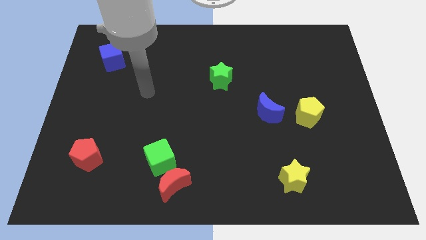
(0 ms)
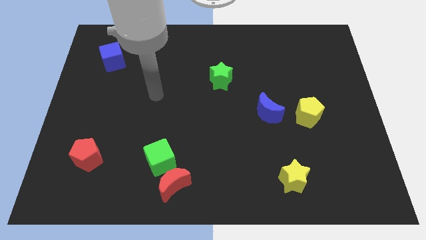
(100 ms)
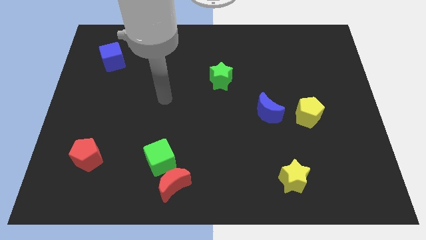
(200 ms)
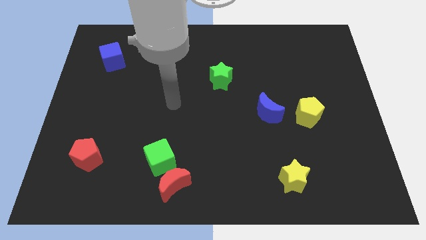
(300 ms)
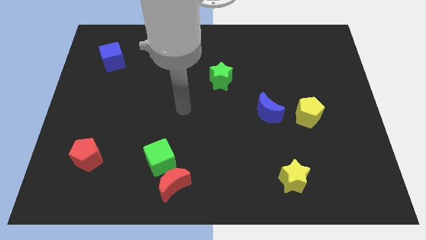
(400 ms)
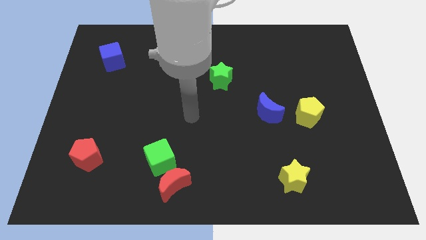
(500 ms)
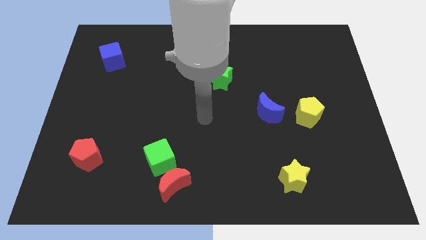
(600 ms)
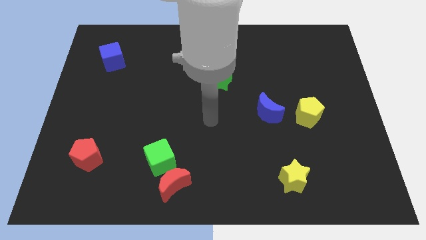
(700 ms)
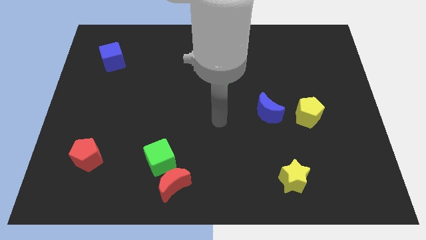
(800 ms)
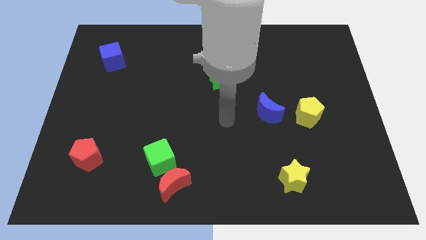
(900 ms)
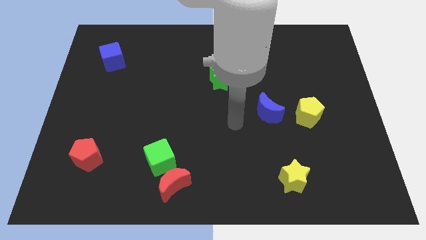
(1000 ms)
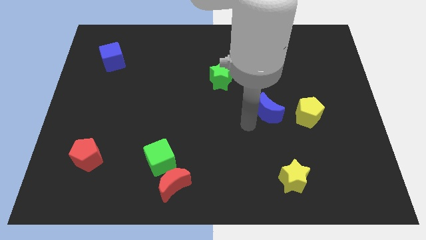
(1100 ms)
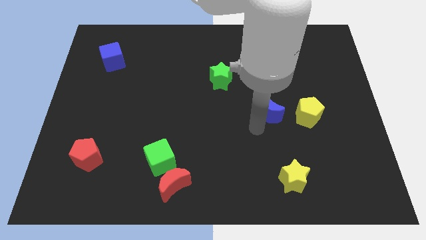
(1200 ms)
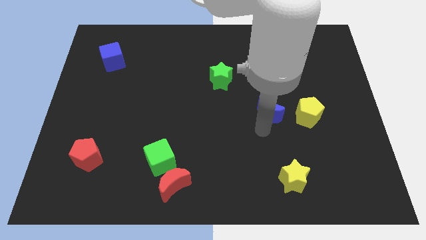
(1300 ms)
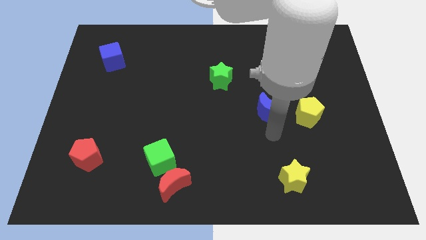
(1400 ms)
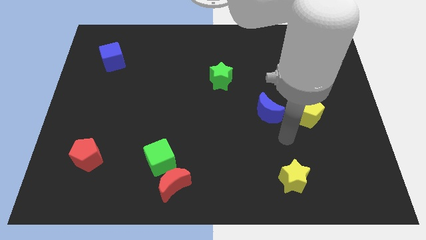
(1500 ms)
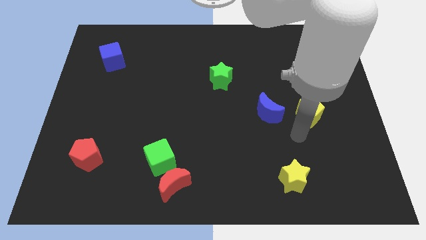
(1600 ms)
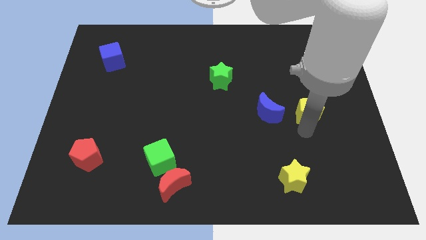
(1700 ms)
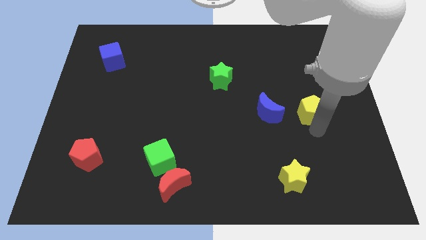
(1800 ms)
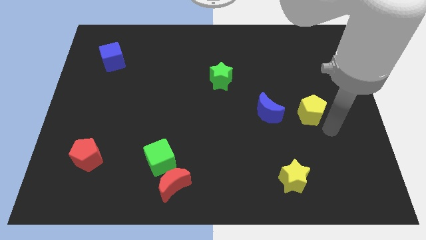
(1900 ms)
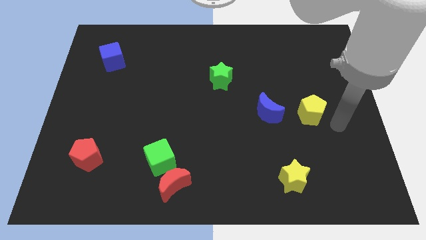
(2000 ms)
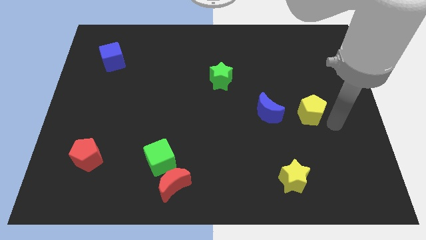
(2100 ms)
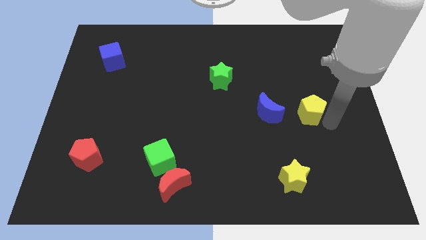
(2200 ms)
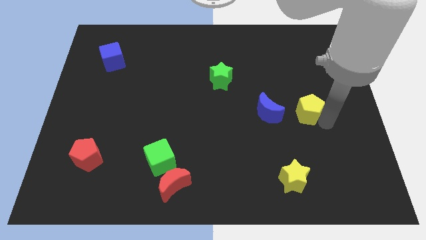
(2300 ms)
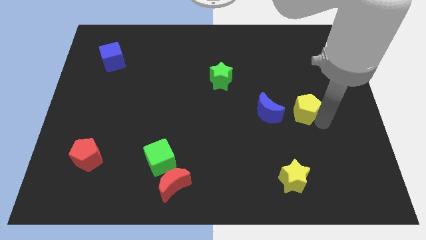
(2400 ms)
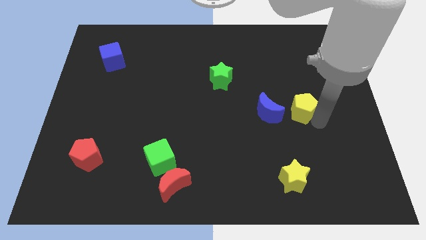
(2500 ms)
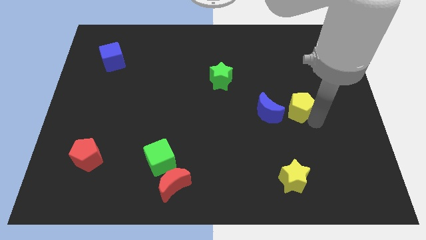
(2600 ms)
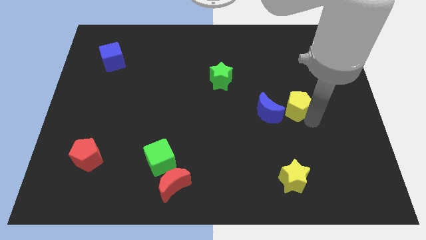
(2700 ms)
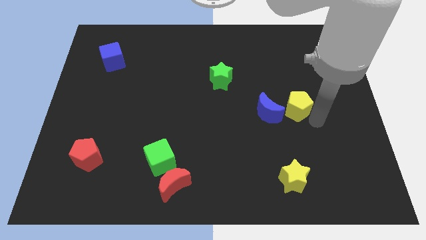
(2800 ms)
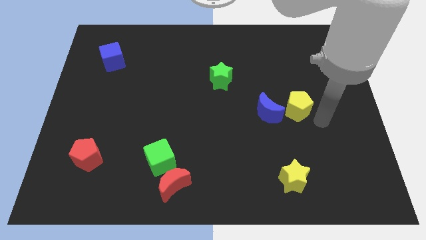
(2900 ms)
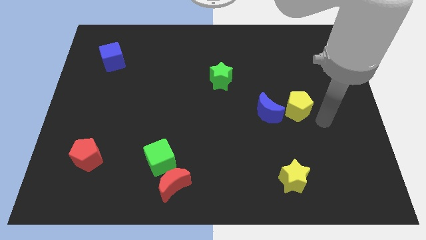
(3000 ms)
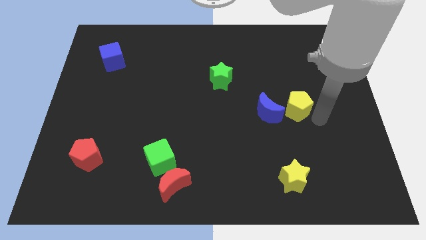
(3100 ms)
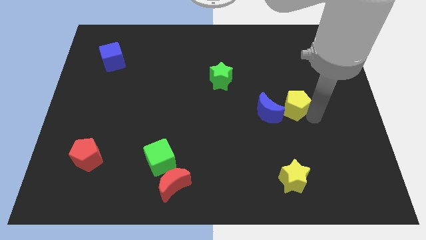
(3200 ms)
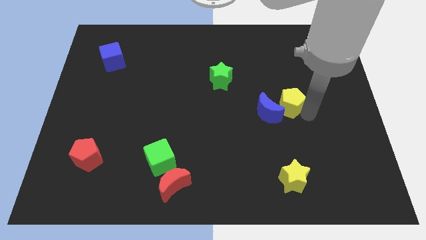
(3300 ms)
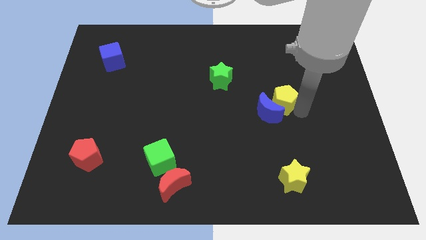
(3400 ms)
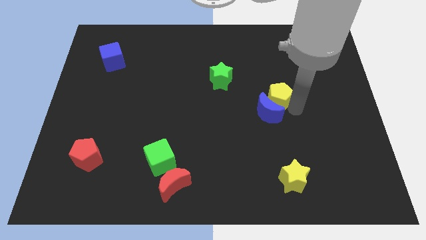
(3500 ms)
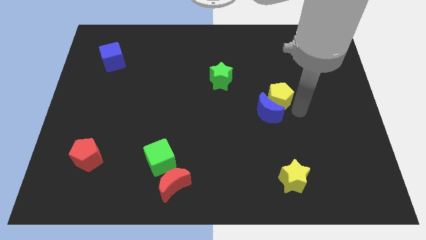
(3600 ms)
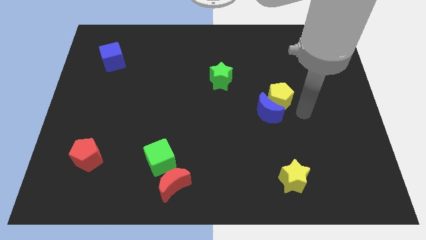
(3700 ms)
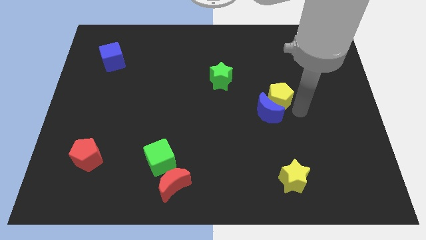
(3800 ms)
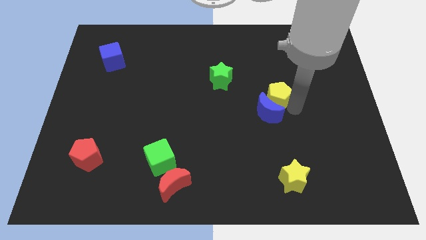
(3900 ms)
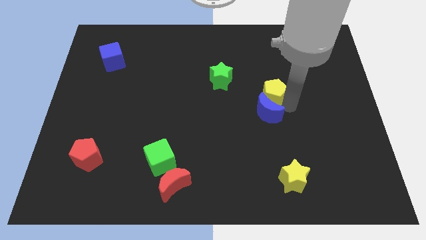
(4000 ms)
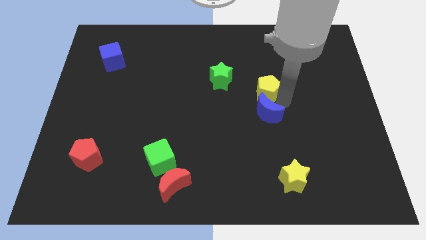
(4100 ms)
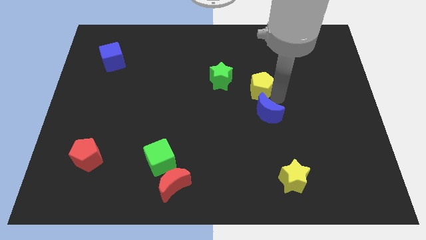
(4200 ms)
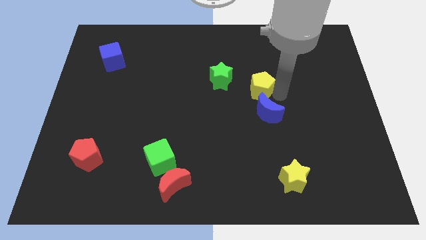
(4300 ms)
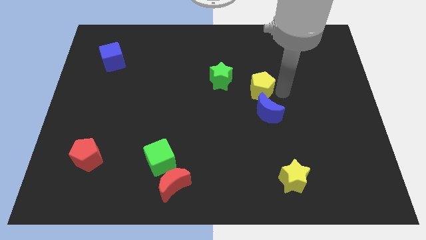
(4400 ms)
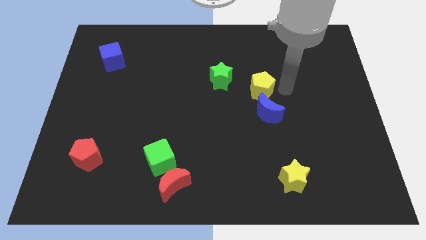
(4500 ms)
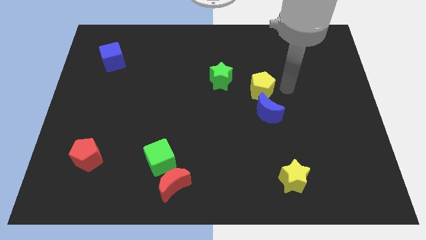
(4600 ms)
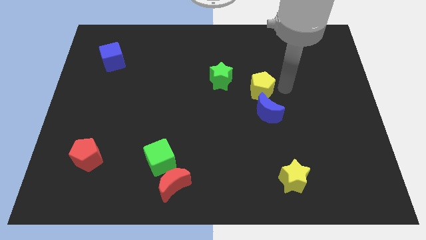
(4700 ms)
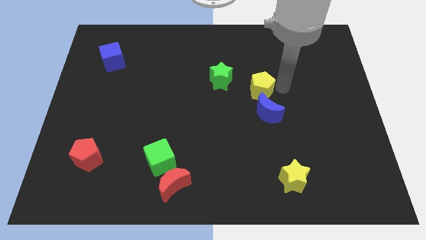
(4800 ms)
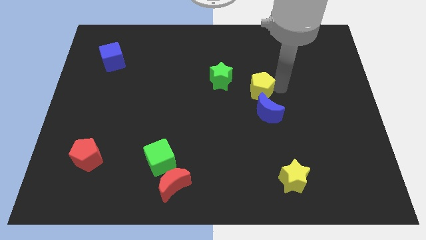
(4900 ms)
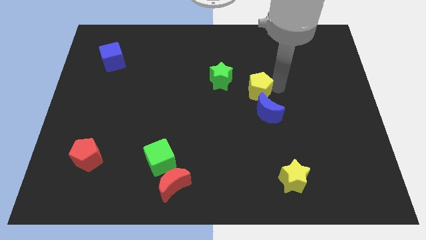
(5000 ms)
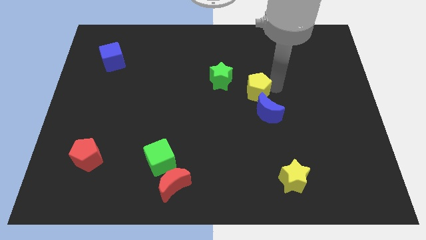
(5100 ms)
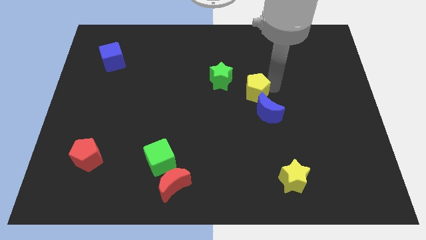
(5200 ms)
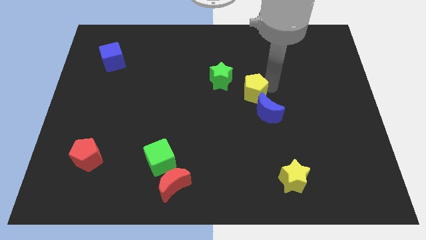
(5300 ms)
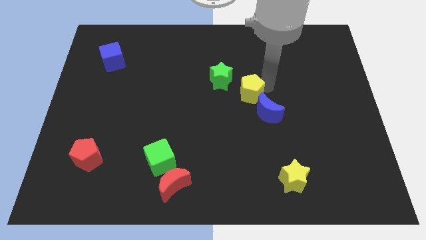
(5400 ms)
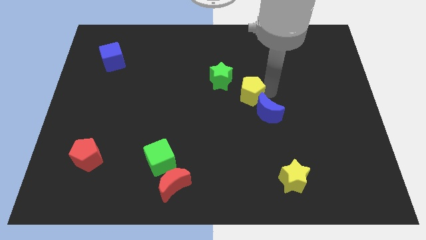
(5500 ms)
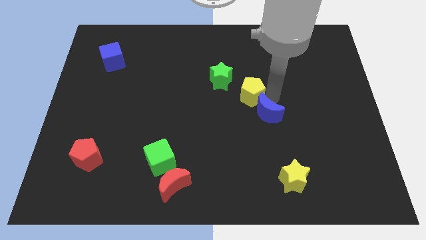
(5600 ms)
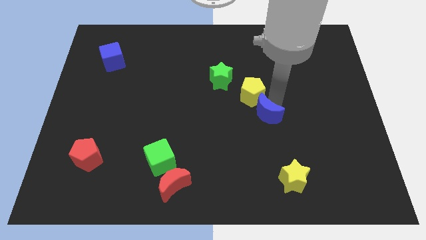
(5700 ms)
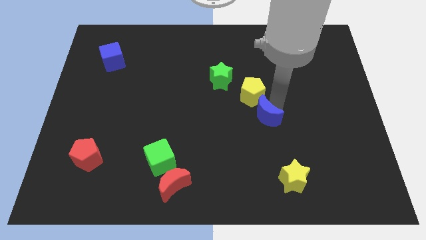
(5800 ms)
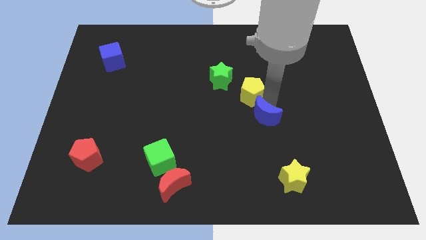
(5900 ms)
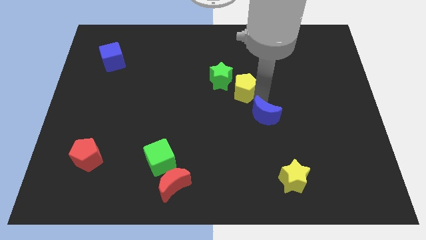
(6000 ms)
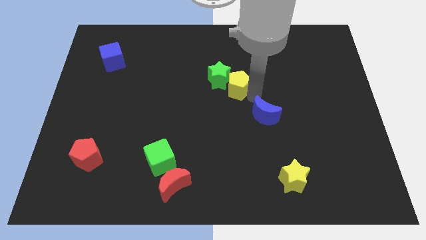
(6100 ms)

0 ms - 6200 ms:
put the yellow pentagon close to the green star

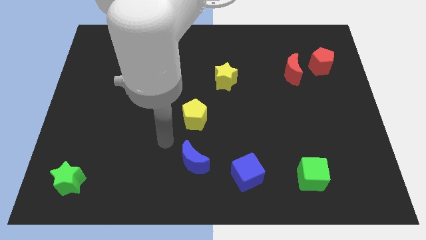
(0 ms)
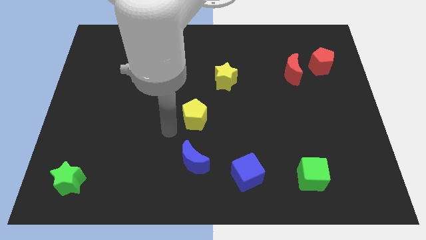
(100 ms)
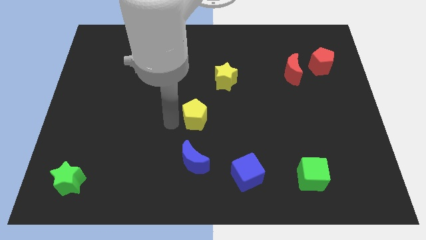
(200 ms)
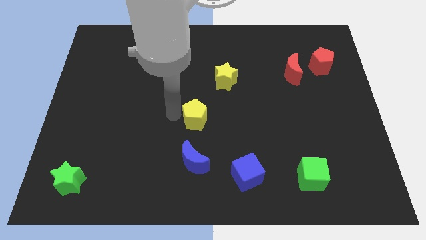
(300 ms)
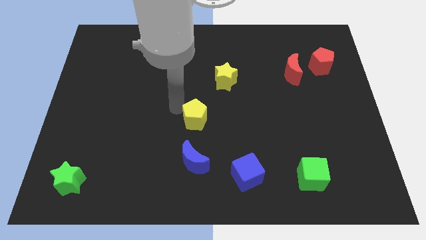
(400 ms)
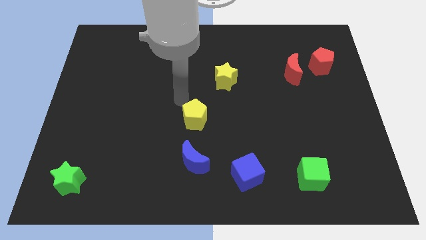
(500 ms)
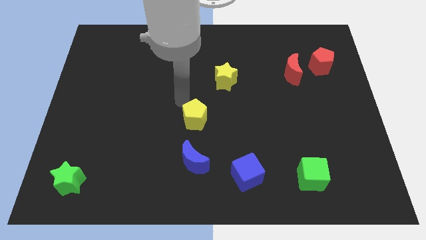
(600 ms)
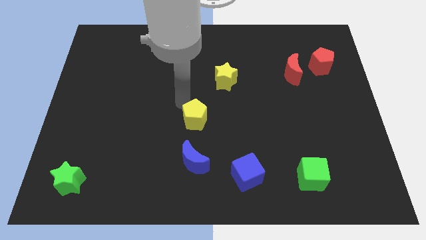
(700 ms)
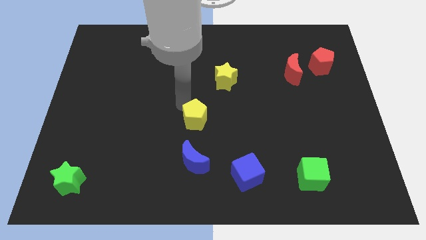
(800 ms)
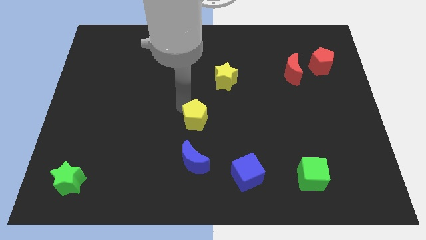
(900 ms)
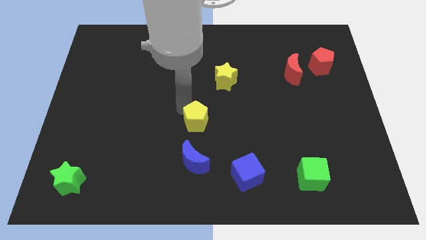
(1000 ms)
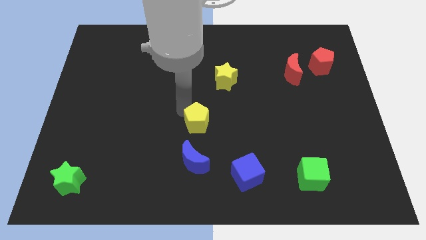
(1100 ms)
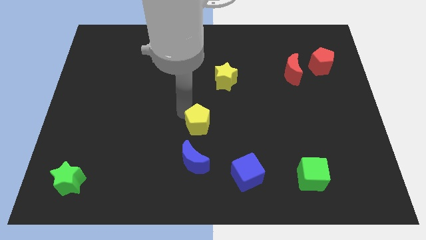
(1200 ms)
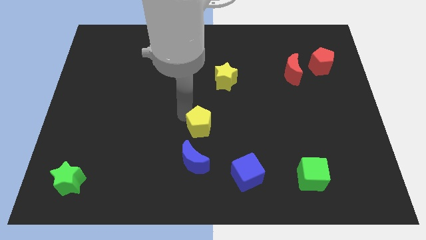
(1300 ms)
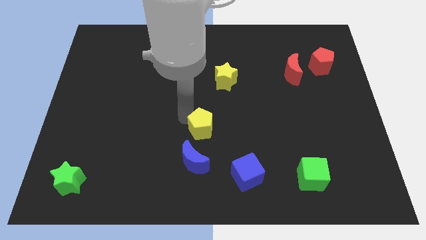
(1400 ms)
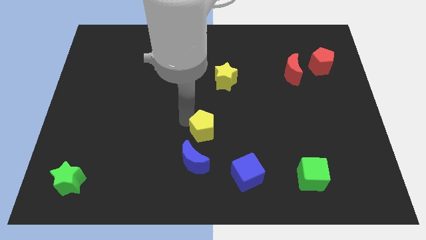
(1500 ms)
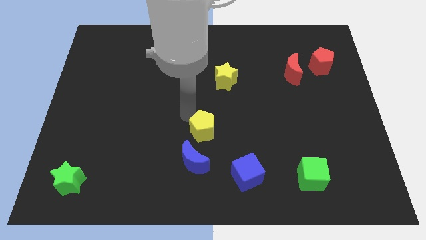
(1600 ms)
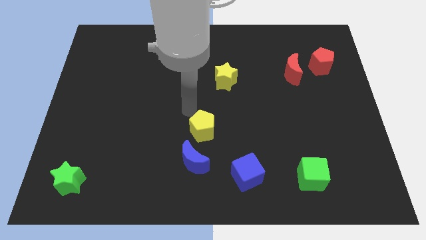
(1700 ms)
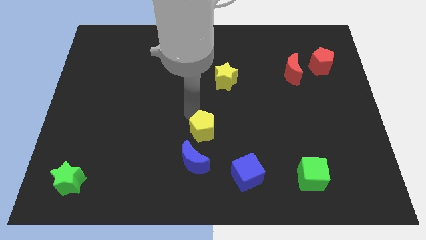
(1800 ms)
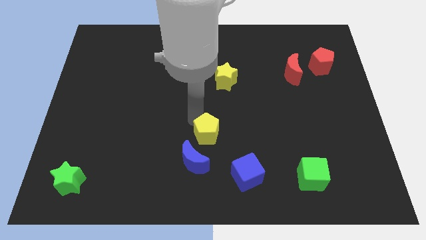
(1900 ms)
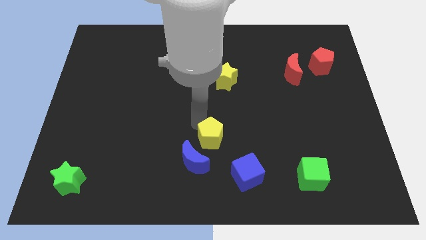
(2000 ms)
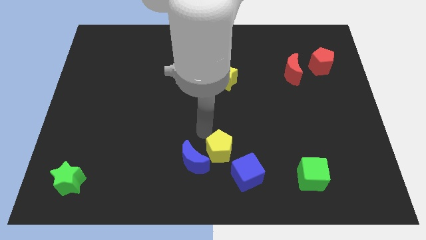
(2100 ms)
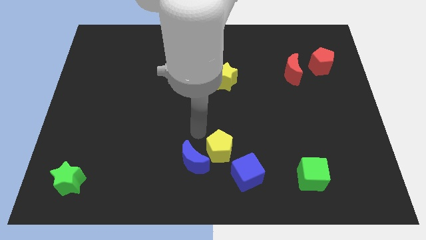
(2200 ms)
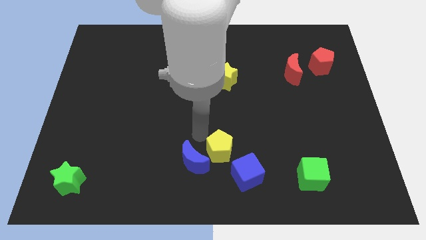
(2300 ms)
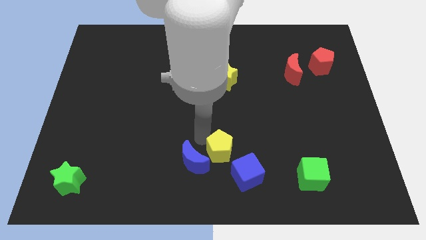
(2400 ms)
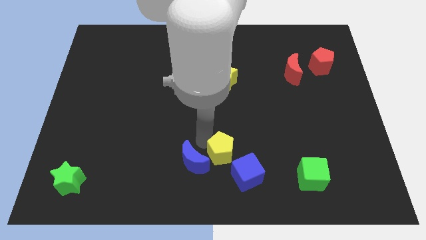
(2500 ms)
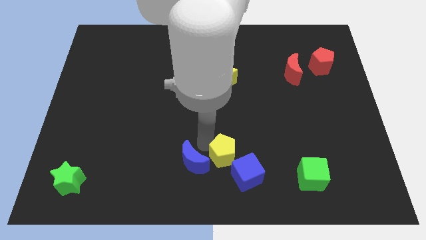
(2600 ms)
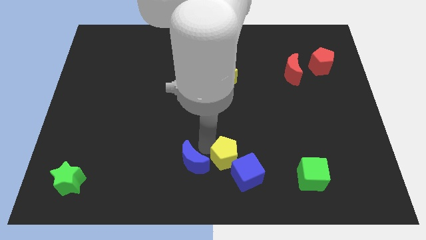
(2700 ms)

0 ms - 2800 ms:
move the yellow pentagon next to the blue cube
